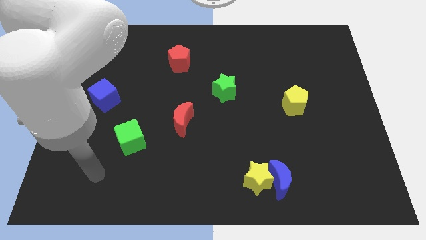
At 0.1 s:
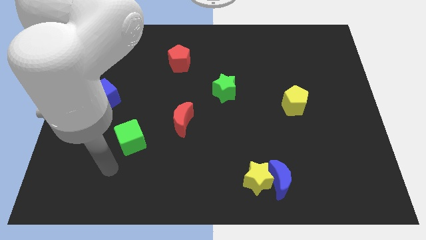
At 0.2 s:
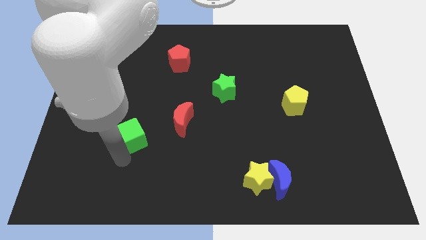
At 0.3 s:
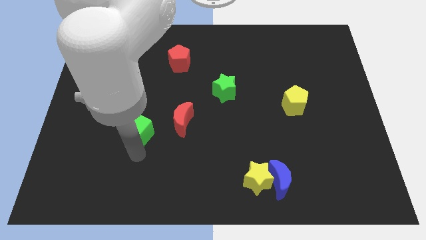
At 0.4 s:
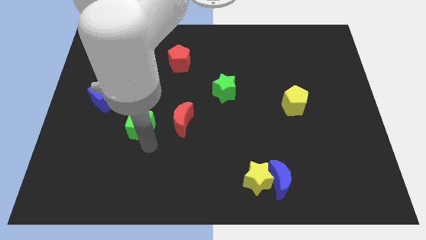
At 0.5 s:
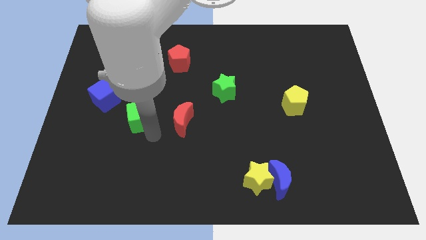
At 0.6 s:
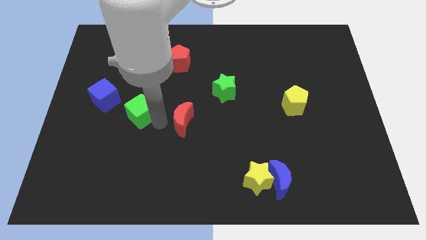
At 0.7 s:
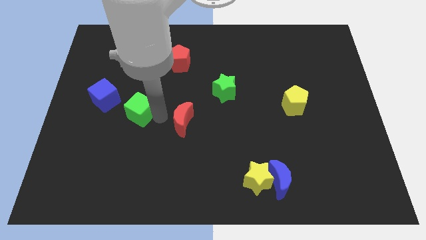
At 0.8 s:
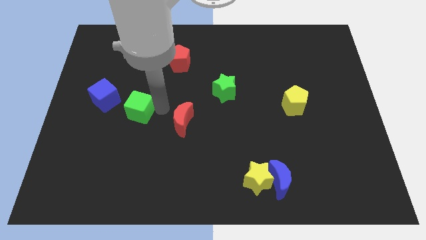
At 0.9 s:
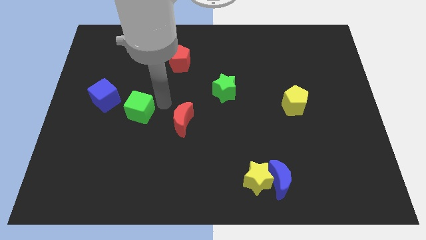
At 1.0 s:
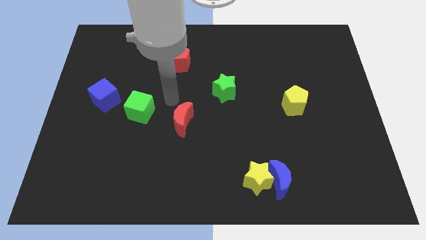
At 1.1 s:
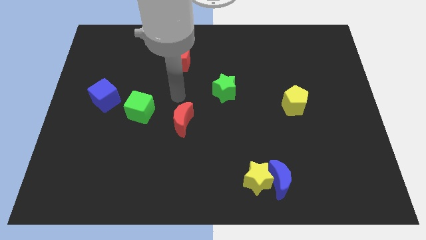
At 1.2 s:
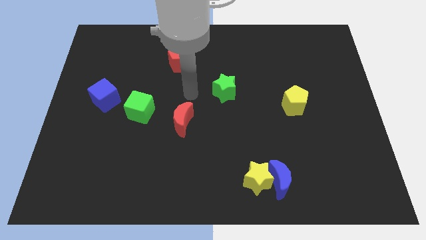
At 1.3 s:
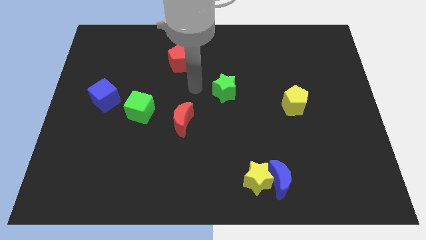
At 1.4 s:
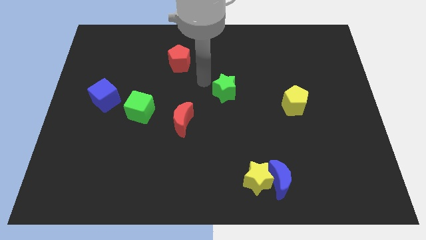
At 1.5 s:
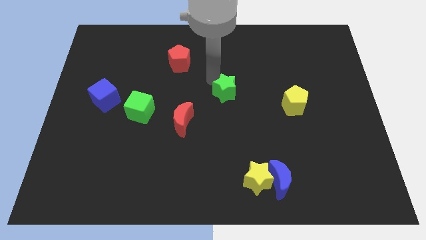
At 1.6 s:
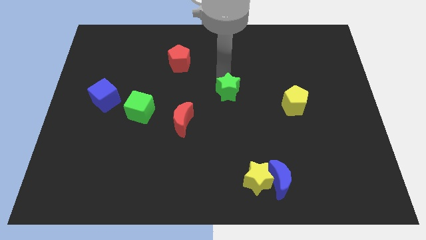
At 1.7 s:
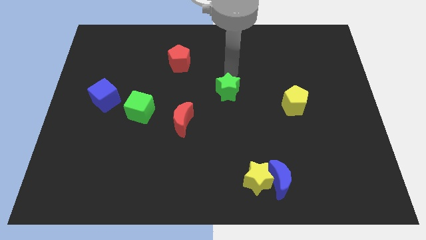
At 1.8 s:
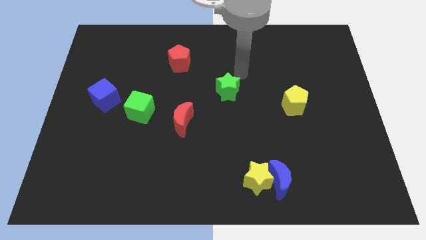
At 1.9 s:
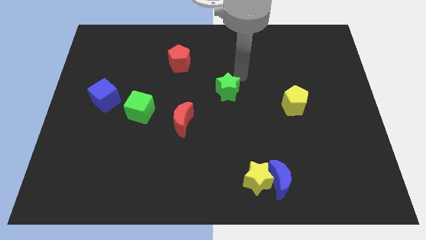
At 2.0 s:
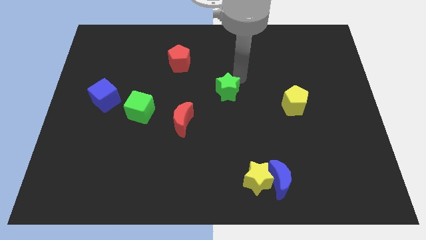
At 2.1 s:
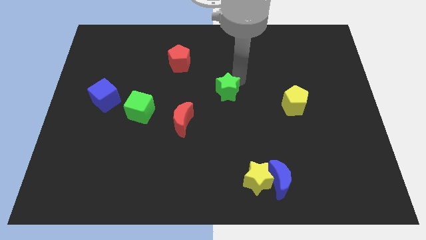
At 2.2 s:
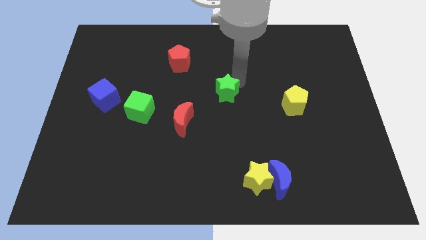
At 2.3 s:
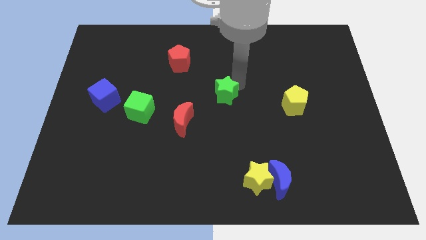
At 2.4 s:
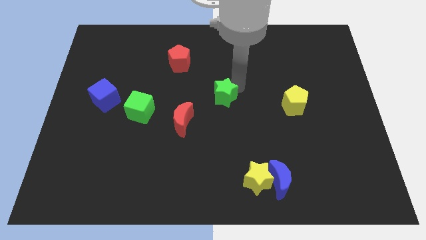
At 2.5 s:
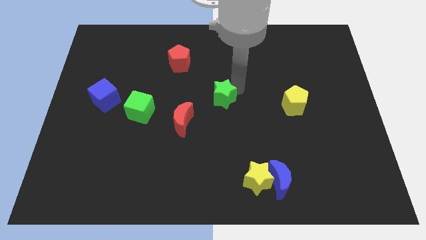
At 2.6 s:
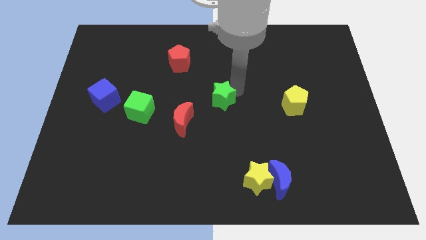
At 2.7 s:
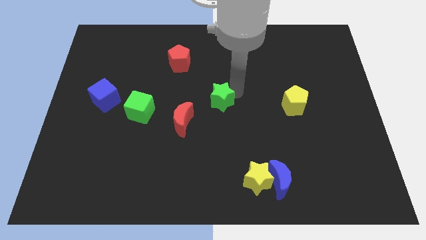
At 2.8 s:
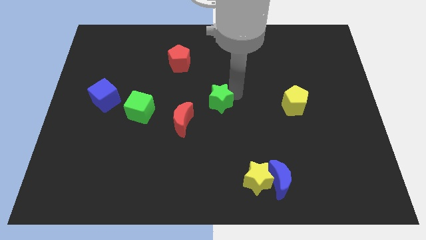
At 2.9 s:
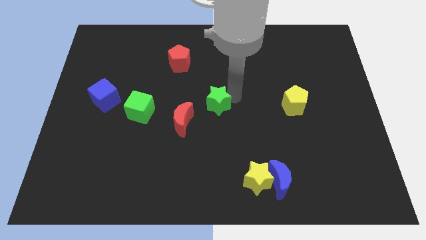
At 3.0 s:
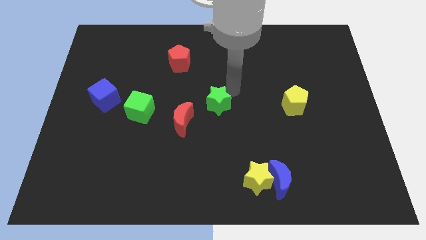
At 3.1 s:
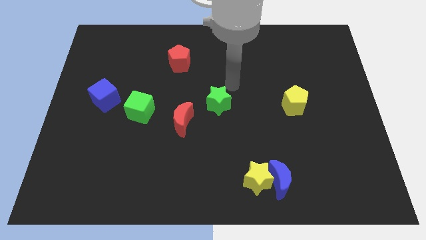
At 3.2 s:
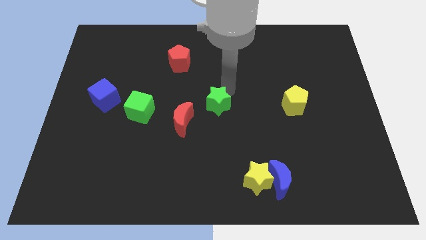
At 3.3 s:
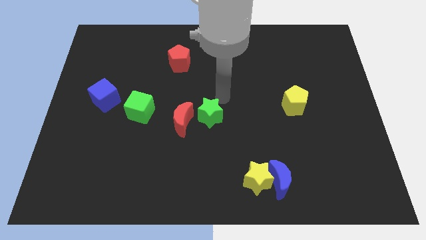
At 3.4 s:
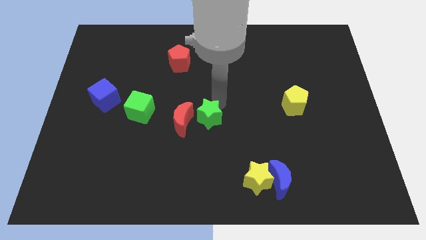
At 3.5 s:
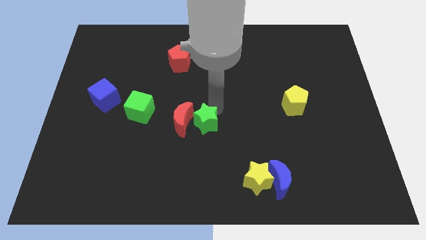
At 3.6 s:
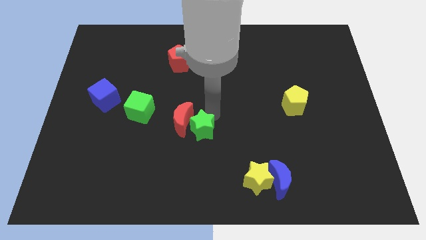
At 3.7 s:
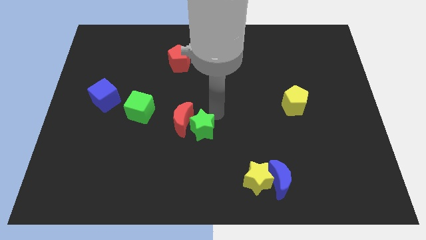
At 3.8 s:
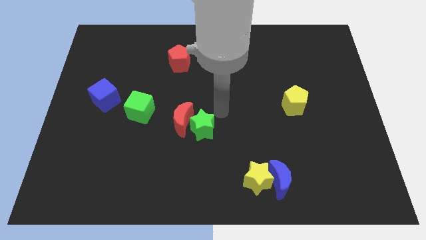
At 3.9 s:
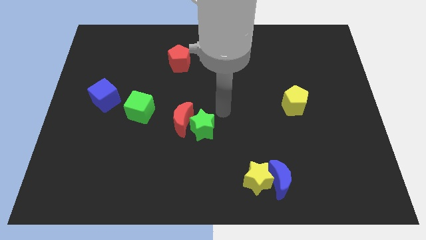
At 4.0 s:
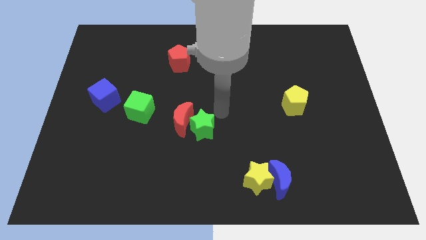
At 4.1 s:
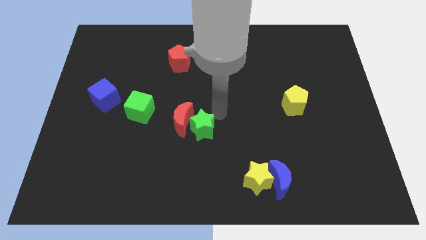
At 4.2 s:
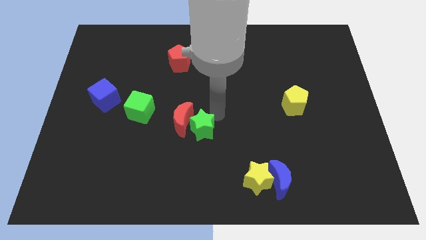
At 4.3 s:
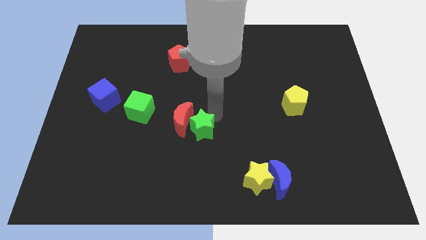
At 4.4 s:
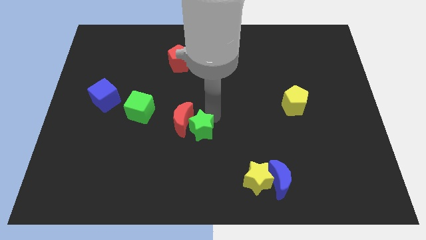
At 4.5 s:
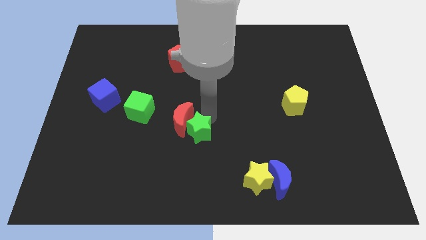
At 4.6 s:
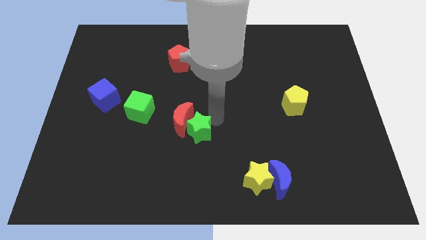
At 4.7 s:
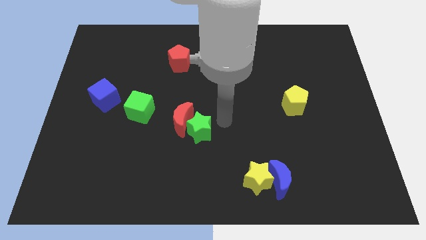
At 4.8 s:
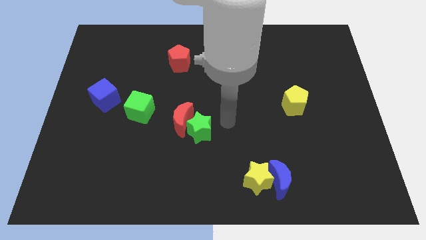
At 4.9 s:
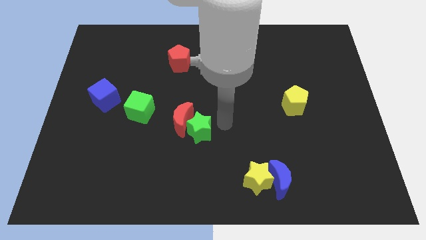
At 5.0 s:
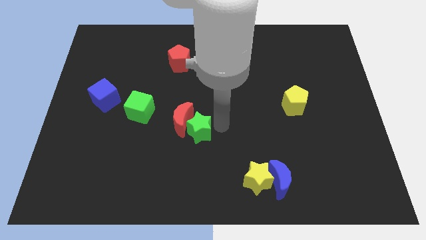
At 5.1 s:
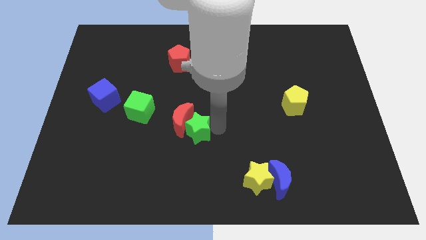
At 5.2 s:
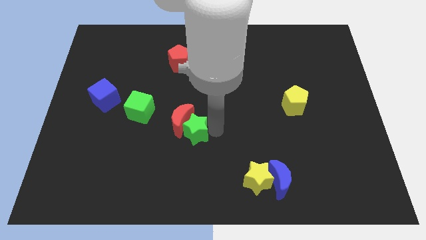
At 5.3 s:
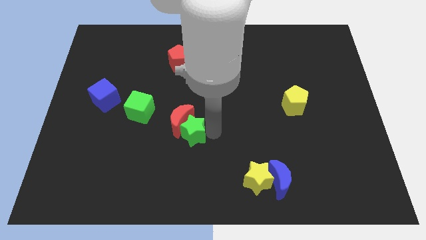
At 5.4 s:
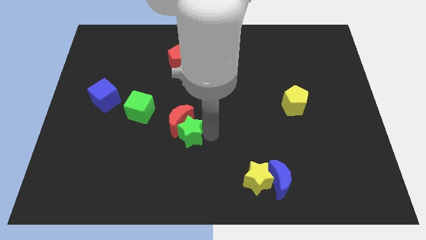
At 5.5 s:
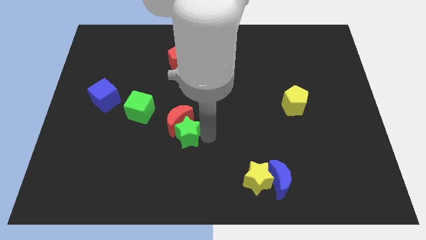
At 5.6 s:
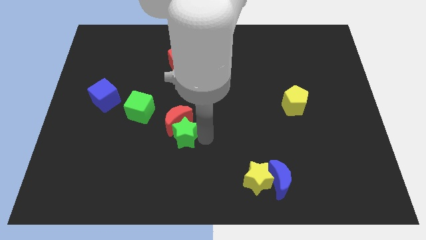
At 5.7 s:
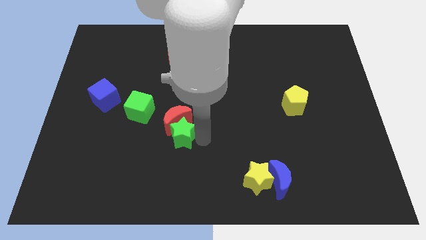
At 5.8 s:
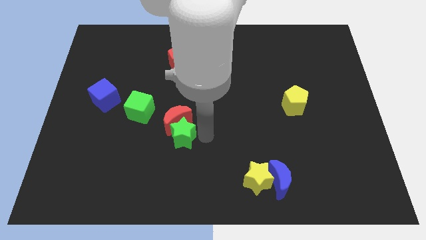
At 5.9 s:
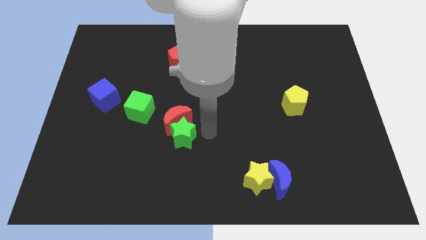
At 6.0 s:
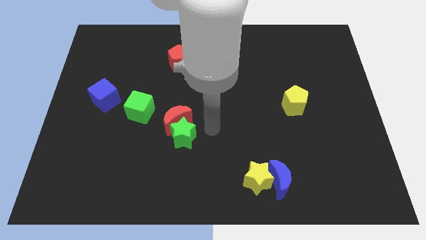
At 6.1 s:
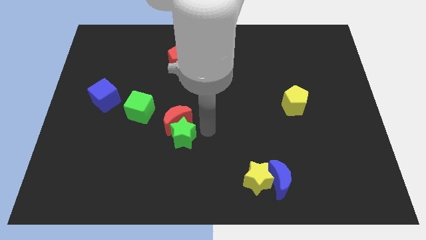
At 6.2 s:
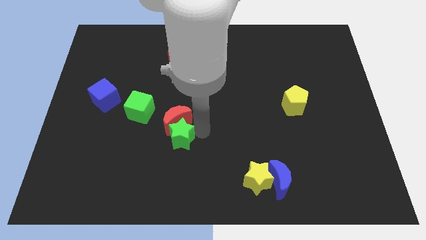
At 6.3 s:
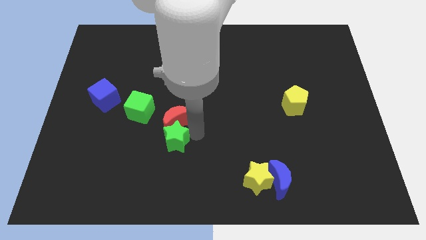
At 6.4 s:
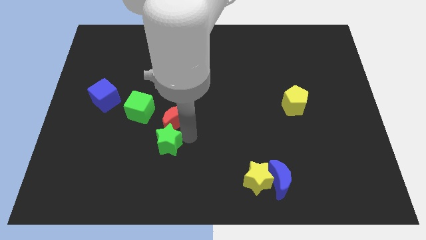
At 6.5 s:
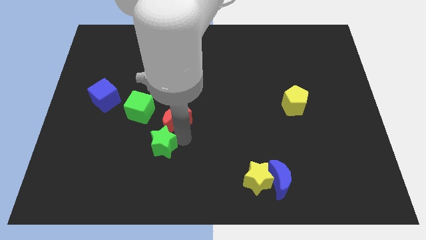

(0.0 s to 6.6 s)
move the green star diagonally downwards and left

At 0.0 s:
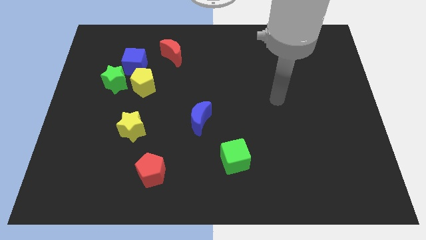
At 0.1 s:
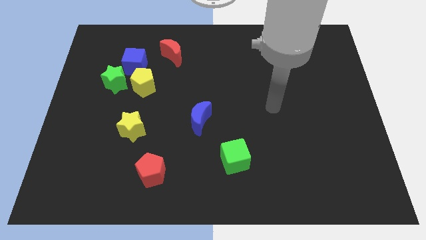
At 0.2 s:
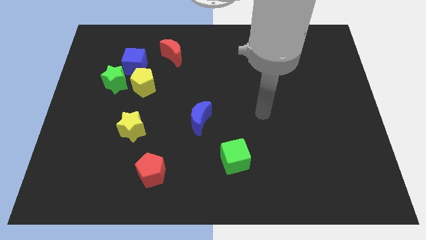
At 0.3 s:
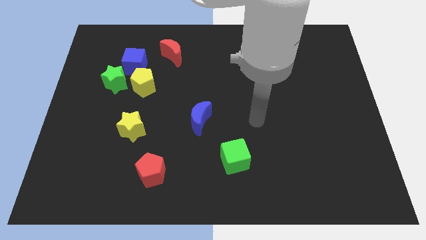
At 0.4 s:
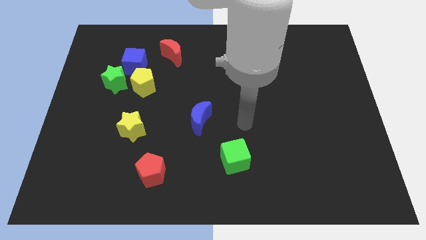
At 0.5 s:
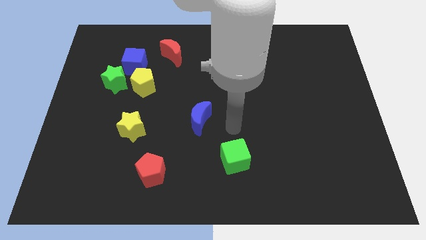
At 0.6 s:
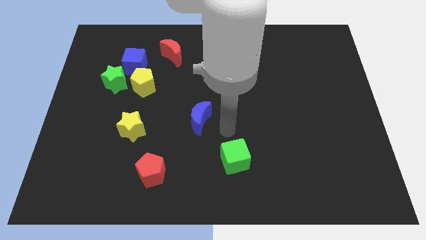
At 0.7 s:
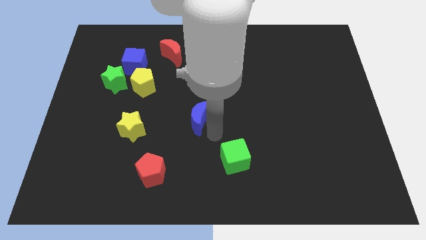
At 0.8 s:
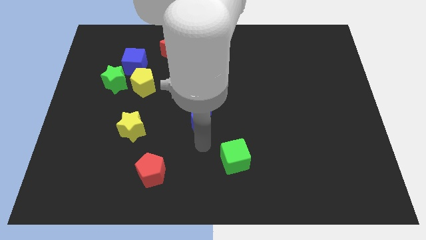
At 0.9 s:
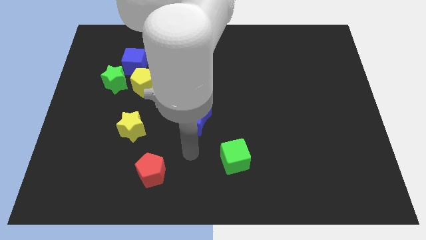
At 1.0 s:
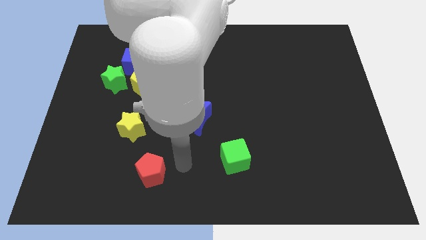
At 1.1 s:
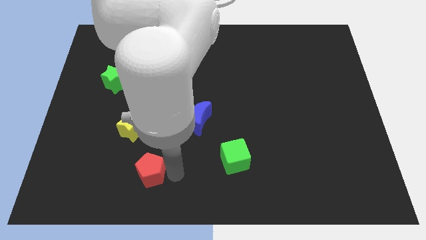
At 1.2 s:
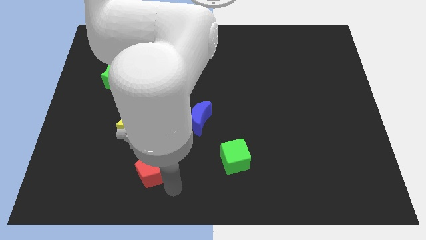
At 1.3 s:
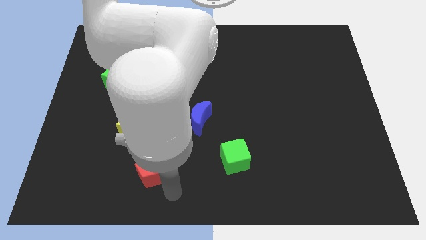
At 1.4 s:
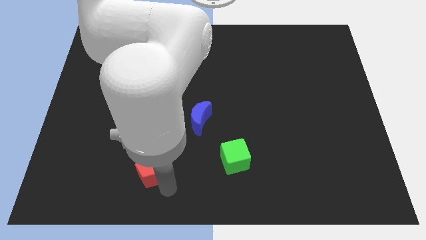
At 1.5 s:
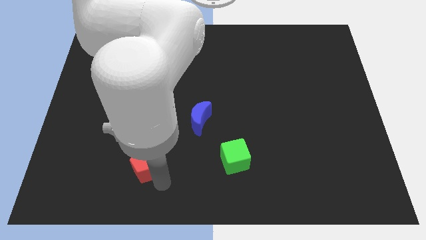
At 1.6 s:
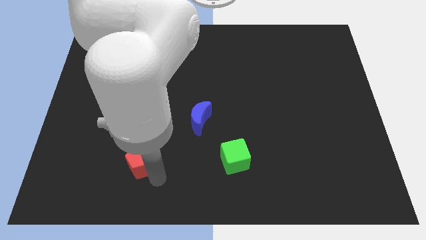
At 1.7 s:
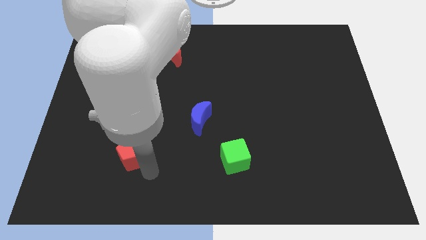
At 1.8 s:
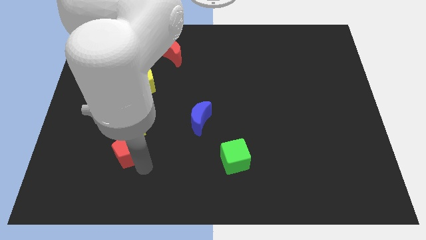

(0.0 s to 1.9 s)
push the red pentagon up and to the left diagonally somewhat
